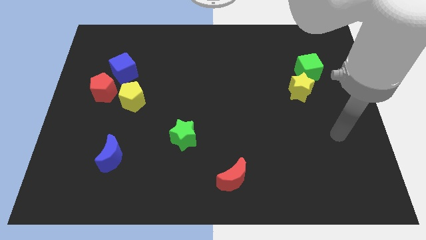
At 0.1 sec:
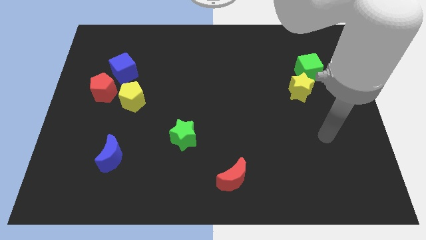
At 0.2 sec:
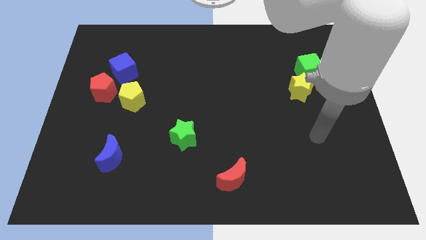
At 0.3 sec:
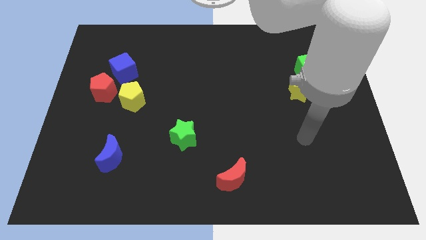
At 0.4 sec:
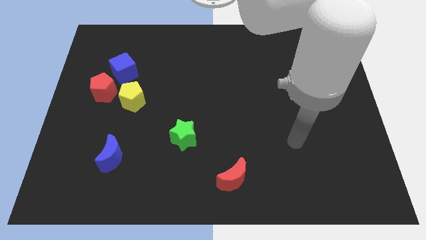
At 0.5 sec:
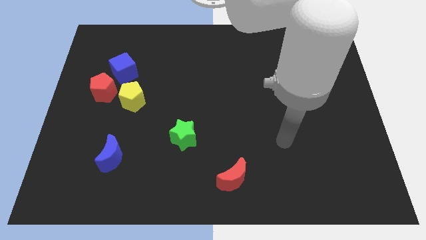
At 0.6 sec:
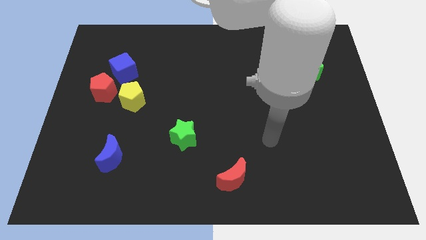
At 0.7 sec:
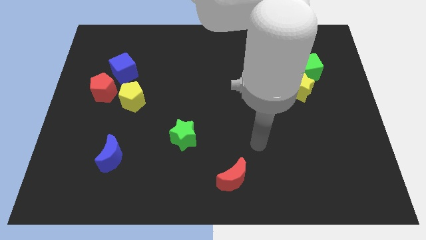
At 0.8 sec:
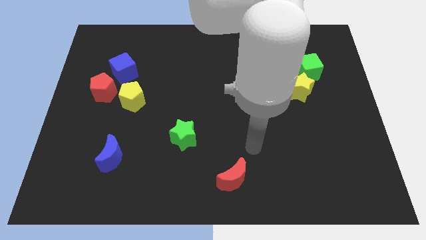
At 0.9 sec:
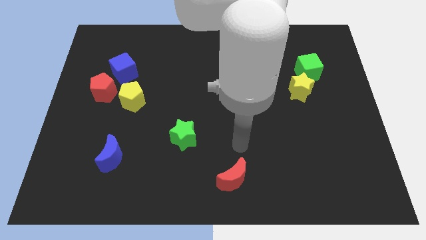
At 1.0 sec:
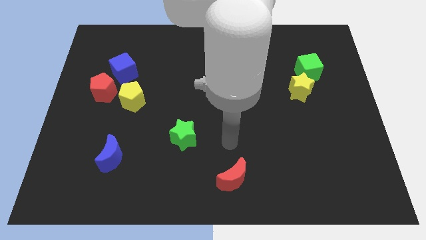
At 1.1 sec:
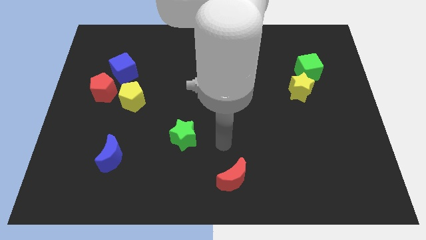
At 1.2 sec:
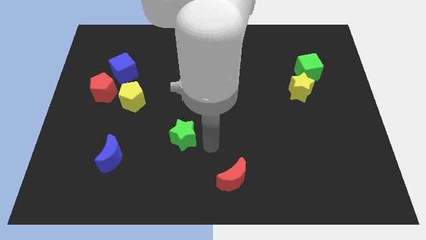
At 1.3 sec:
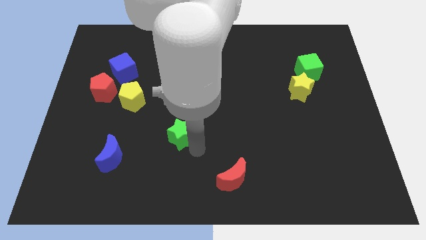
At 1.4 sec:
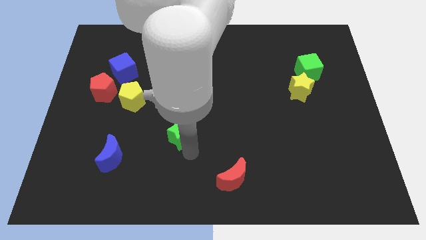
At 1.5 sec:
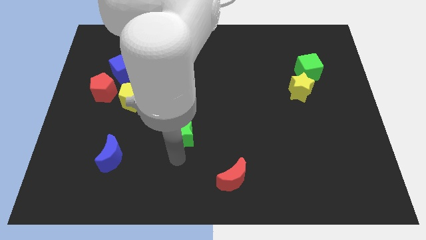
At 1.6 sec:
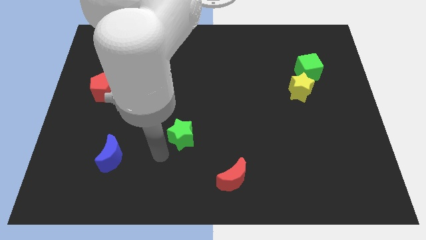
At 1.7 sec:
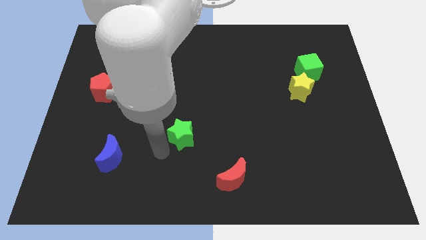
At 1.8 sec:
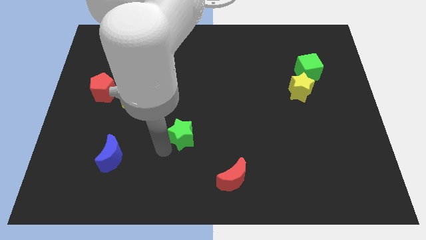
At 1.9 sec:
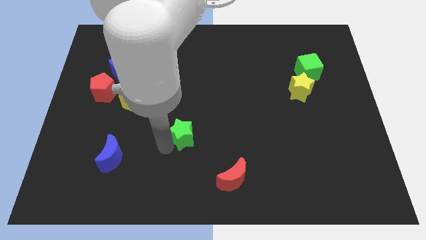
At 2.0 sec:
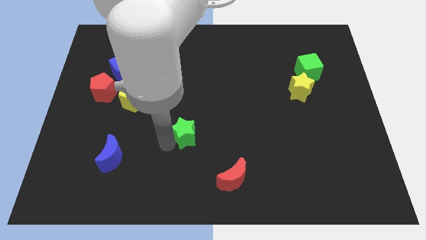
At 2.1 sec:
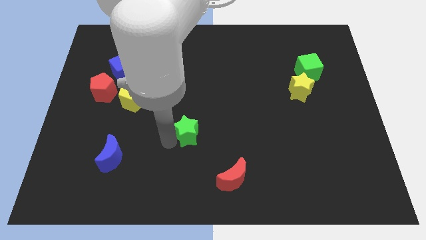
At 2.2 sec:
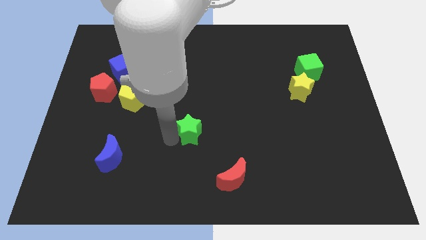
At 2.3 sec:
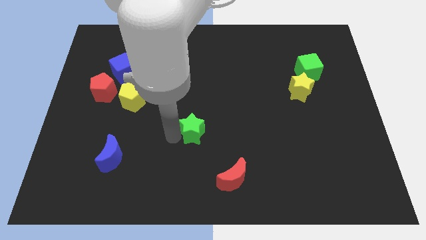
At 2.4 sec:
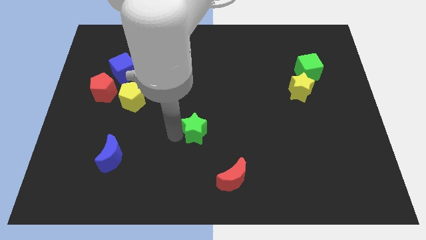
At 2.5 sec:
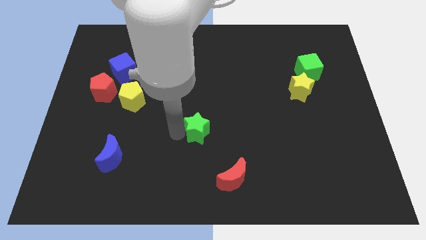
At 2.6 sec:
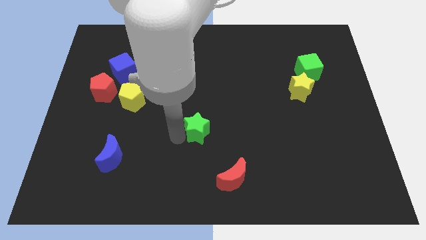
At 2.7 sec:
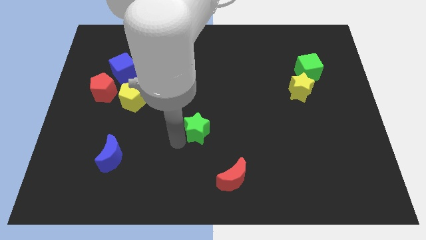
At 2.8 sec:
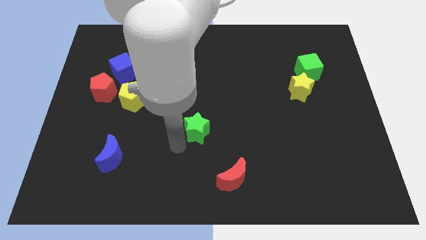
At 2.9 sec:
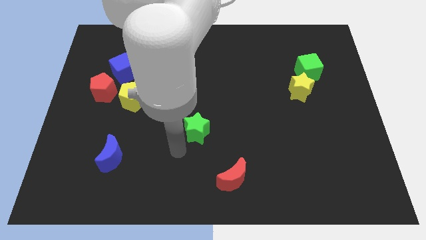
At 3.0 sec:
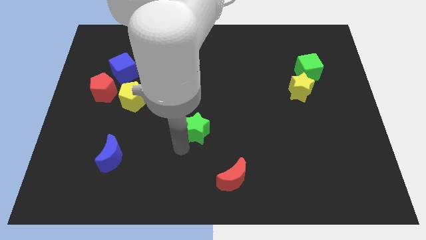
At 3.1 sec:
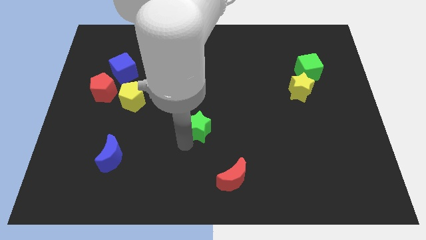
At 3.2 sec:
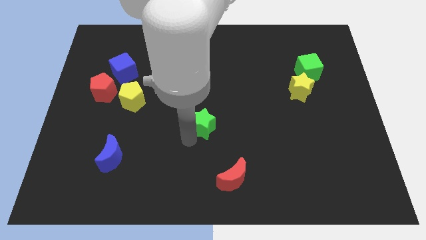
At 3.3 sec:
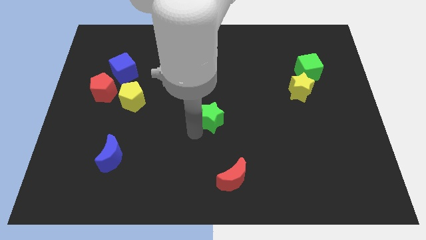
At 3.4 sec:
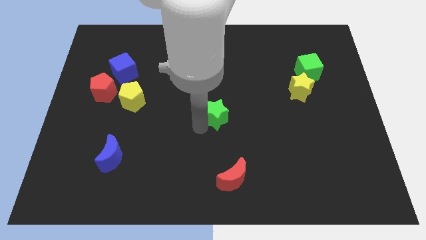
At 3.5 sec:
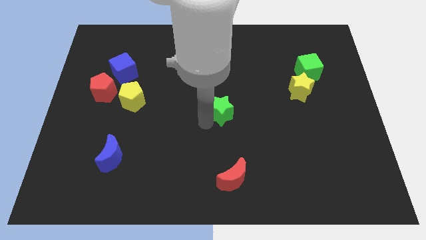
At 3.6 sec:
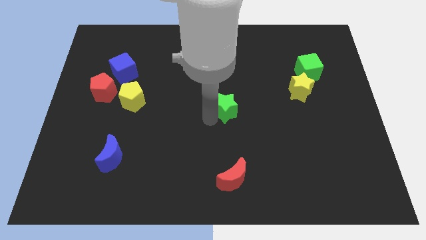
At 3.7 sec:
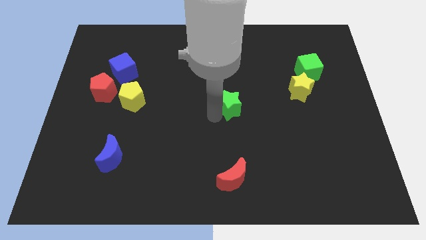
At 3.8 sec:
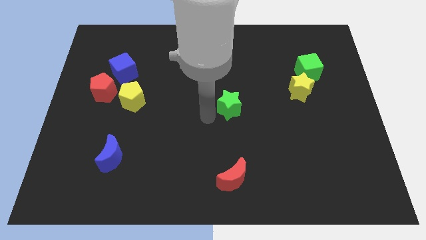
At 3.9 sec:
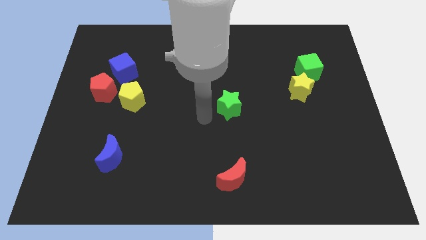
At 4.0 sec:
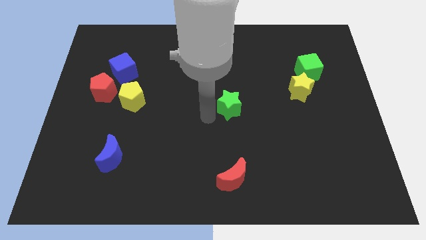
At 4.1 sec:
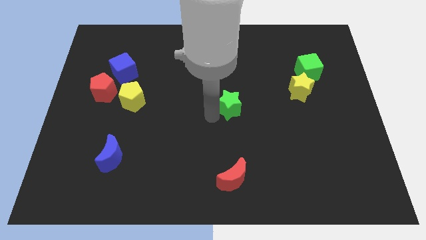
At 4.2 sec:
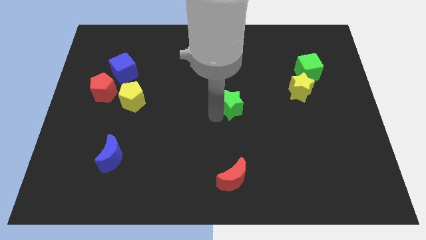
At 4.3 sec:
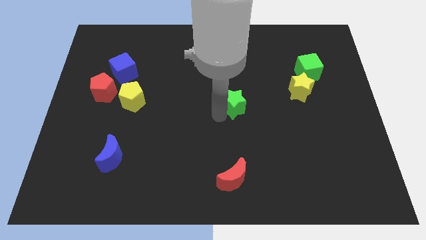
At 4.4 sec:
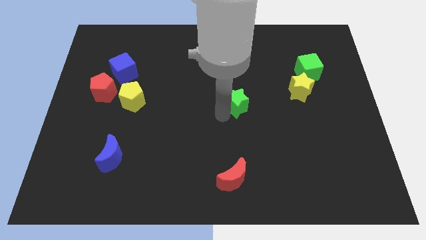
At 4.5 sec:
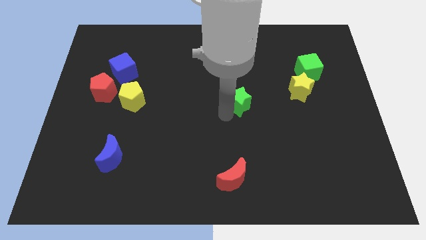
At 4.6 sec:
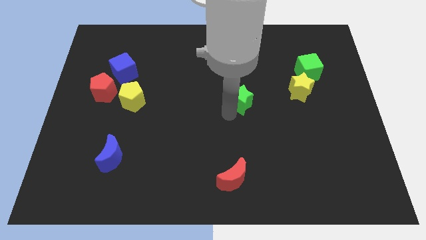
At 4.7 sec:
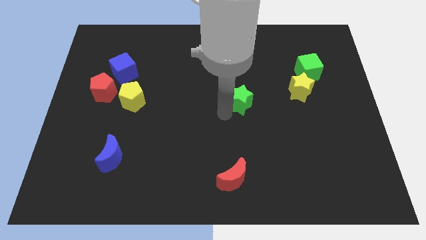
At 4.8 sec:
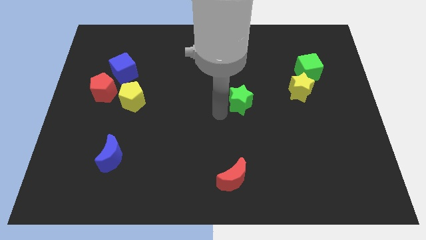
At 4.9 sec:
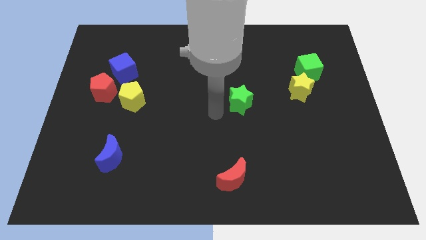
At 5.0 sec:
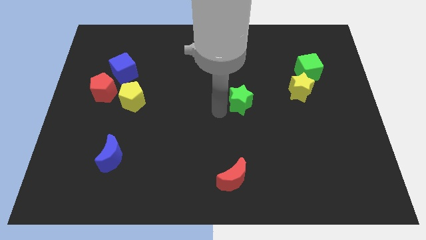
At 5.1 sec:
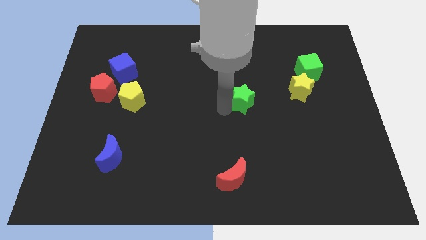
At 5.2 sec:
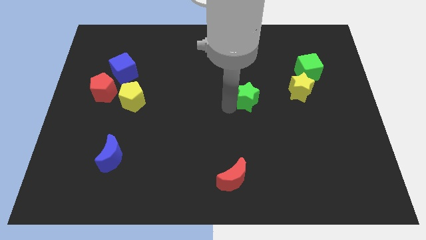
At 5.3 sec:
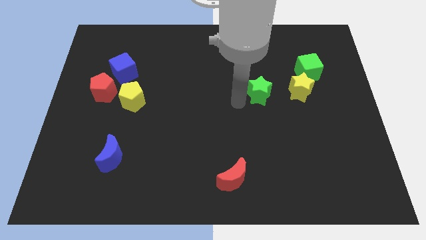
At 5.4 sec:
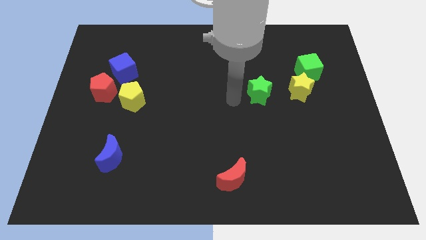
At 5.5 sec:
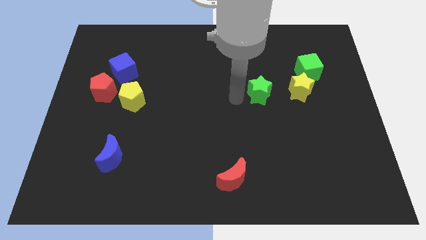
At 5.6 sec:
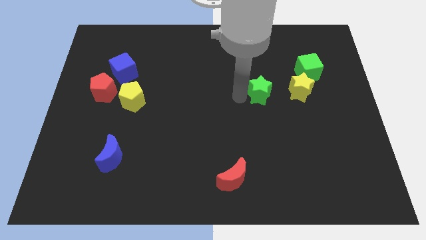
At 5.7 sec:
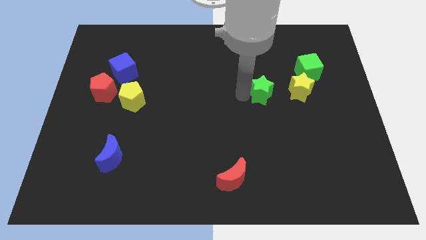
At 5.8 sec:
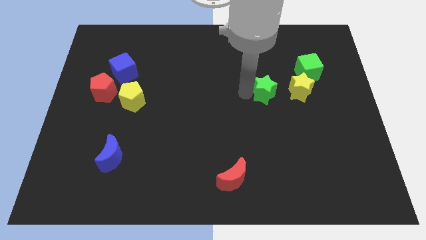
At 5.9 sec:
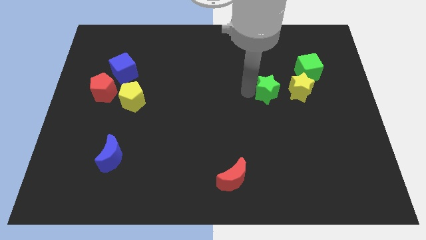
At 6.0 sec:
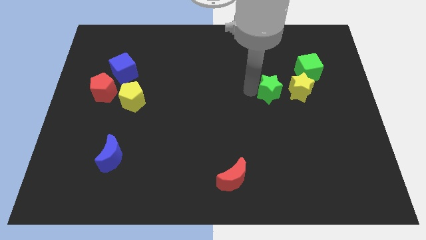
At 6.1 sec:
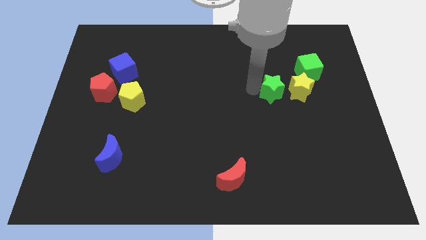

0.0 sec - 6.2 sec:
push the green star to the bottom left of the green cube

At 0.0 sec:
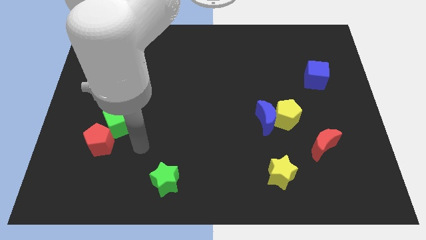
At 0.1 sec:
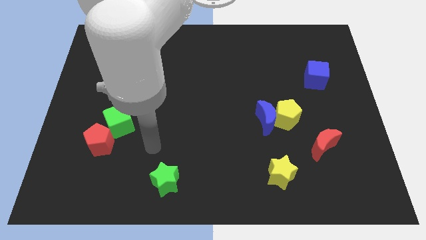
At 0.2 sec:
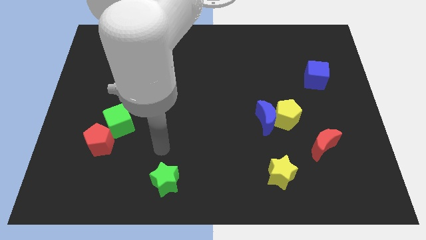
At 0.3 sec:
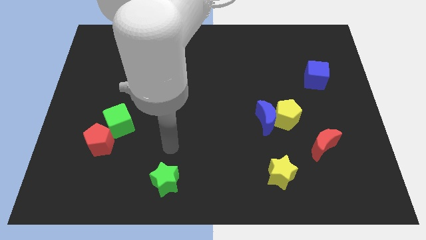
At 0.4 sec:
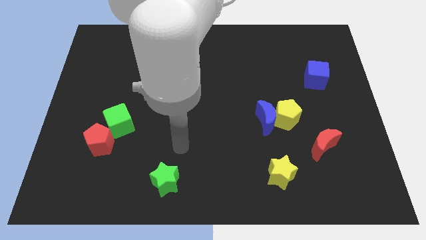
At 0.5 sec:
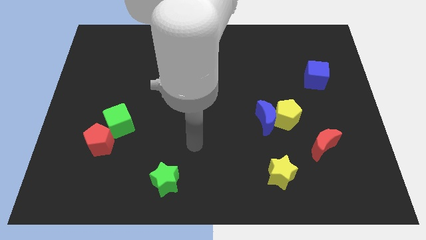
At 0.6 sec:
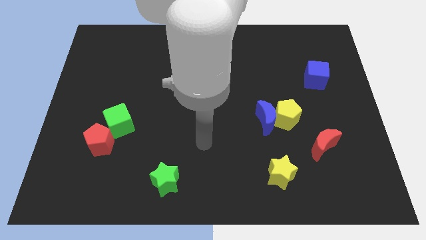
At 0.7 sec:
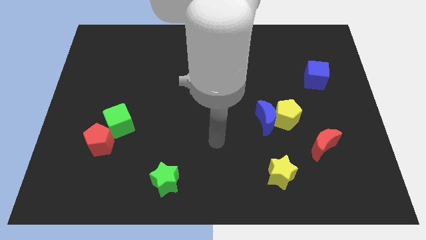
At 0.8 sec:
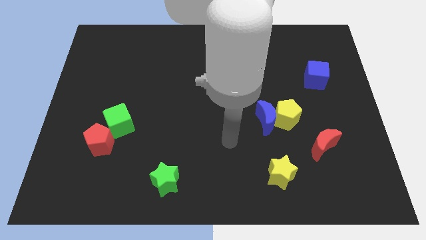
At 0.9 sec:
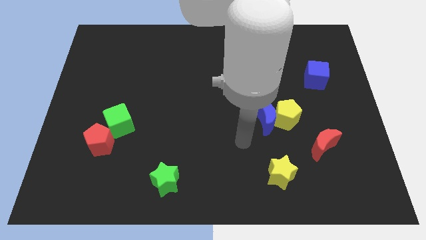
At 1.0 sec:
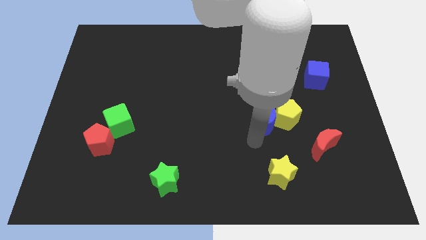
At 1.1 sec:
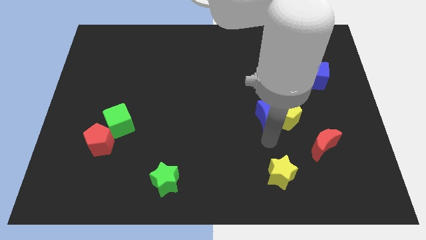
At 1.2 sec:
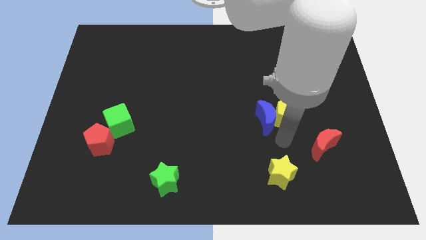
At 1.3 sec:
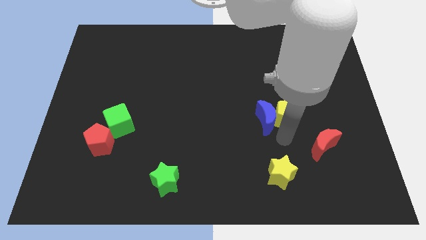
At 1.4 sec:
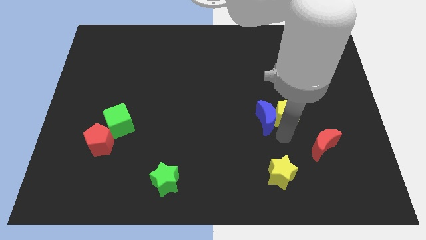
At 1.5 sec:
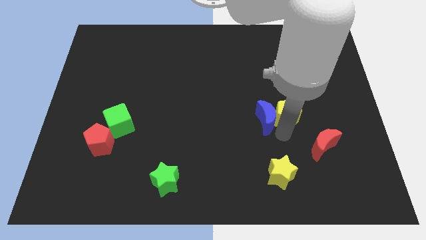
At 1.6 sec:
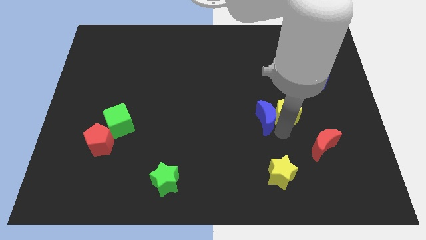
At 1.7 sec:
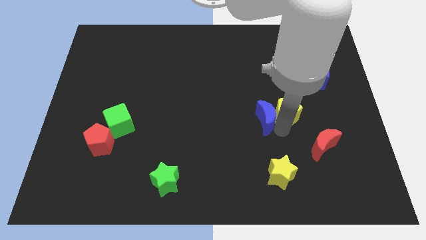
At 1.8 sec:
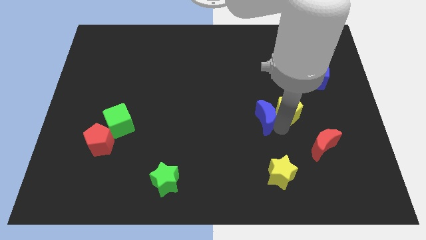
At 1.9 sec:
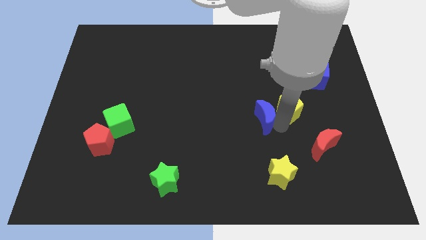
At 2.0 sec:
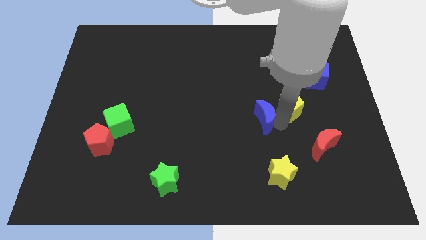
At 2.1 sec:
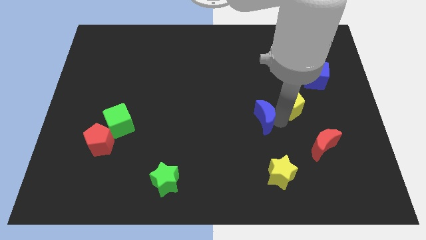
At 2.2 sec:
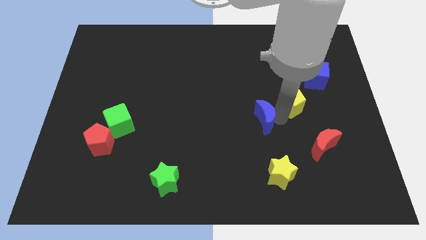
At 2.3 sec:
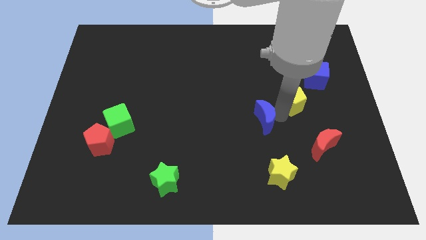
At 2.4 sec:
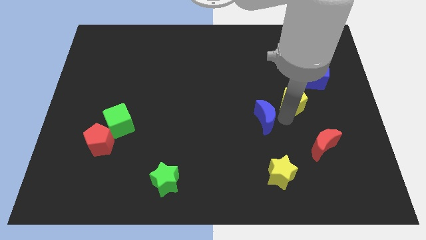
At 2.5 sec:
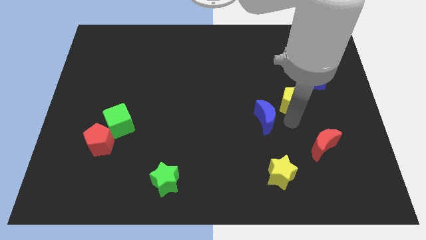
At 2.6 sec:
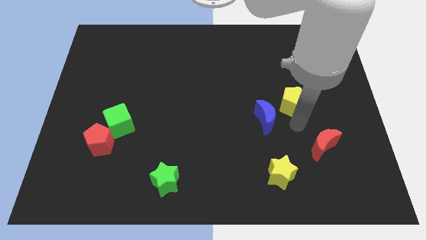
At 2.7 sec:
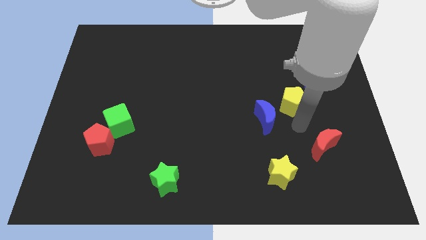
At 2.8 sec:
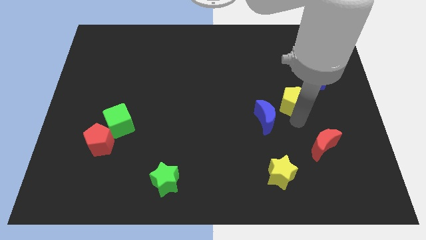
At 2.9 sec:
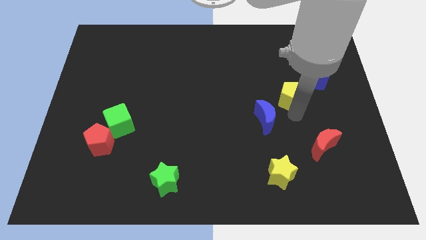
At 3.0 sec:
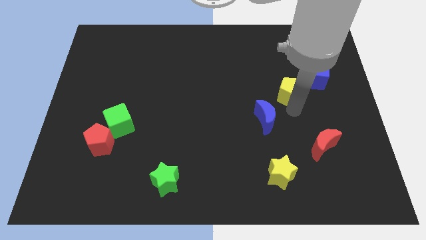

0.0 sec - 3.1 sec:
move the yellow pentagon to the left of the blue cube
